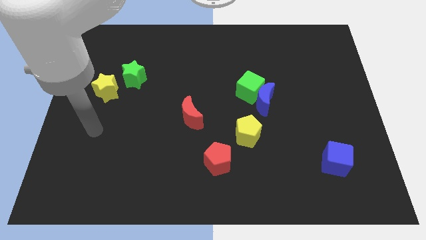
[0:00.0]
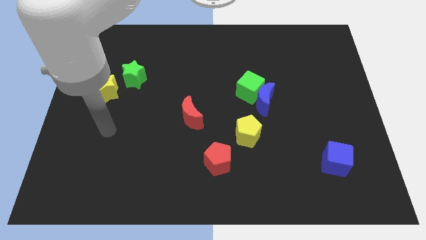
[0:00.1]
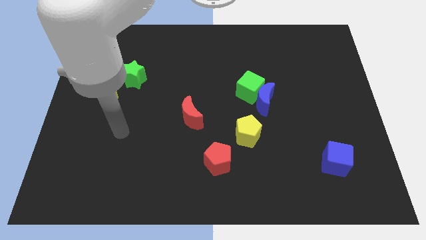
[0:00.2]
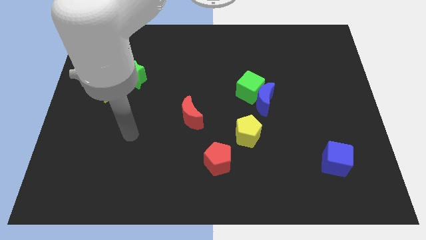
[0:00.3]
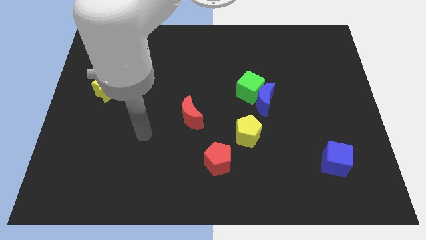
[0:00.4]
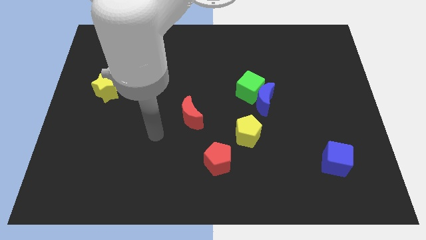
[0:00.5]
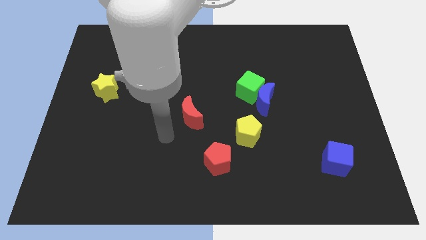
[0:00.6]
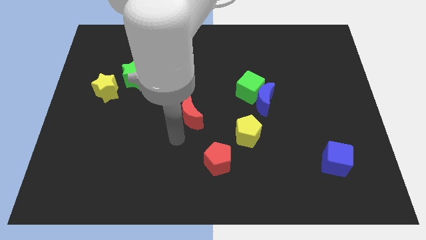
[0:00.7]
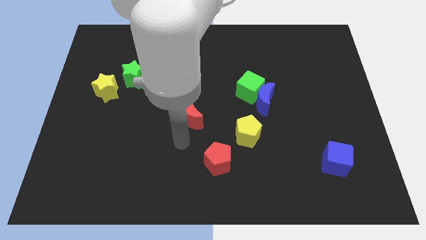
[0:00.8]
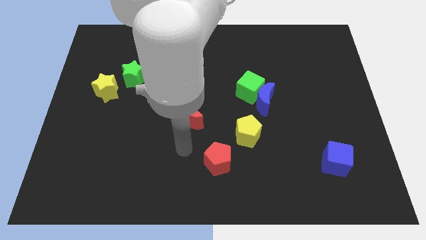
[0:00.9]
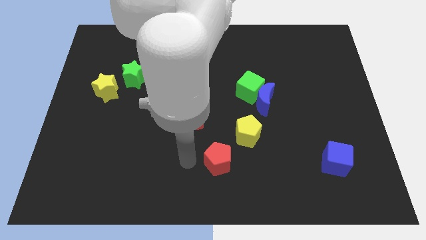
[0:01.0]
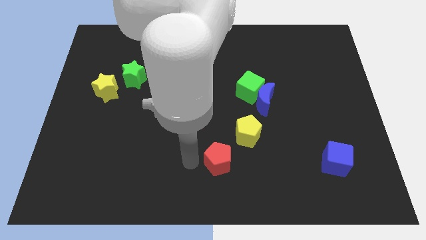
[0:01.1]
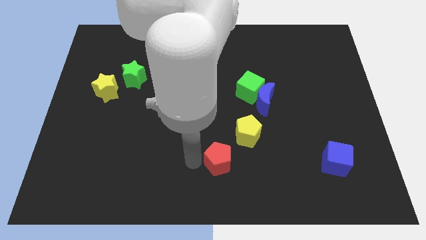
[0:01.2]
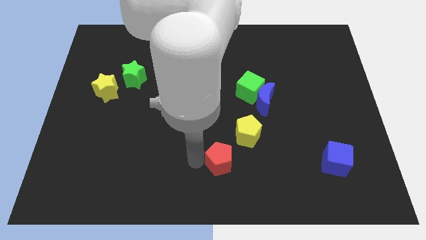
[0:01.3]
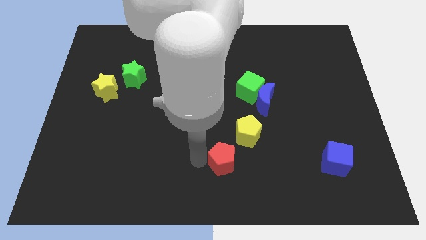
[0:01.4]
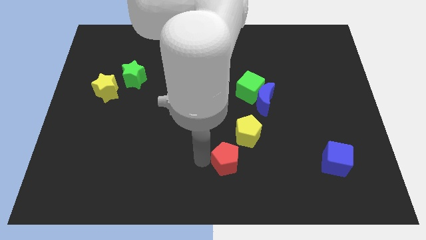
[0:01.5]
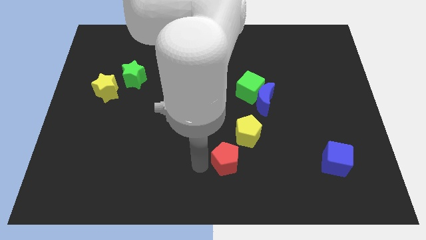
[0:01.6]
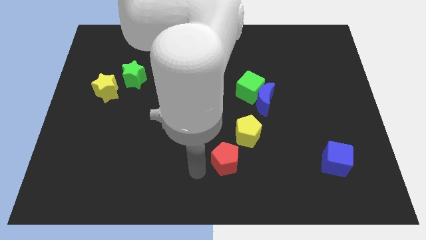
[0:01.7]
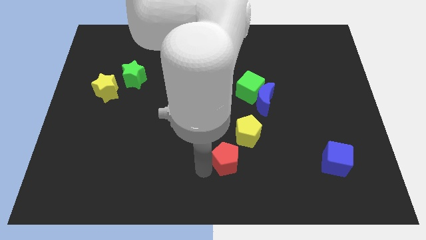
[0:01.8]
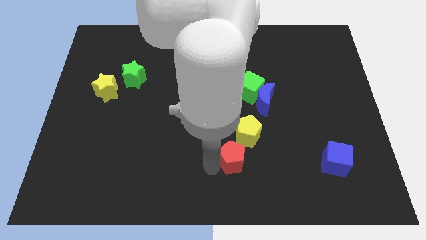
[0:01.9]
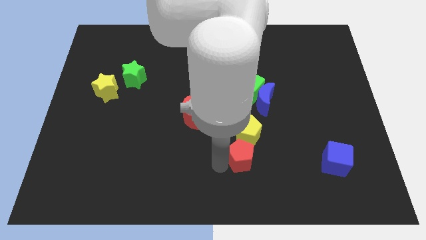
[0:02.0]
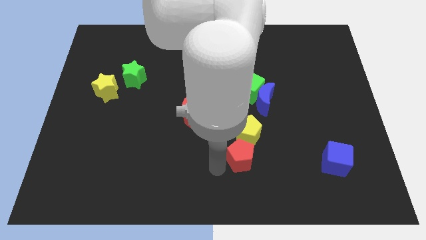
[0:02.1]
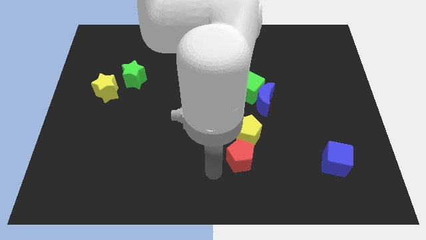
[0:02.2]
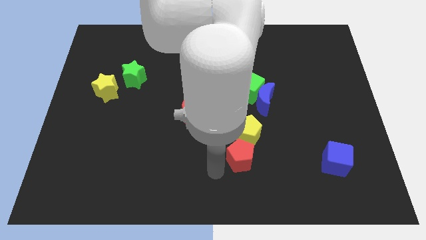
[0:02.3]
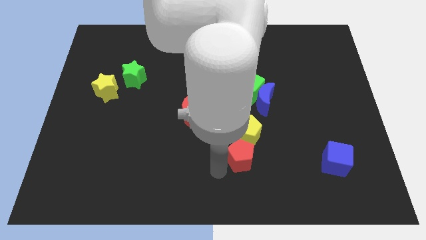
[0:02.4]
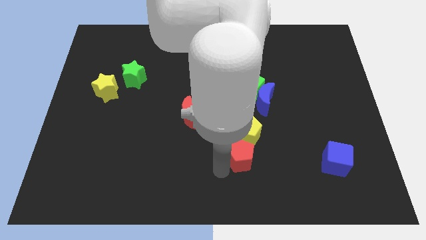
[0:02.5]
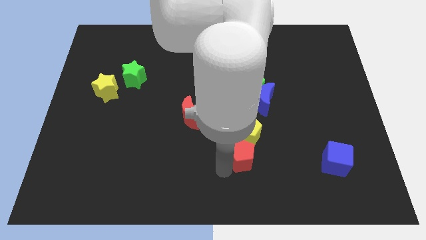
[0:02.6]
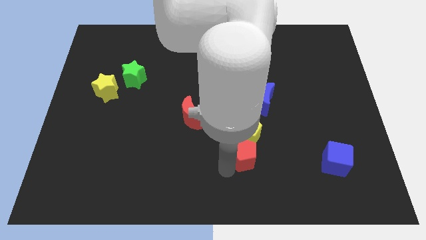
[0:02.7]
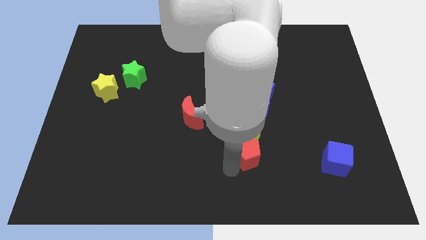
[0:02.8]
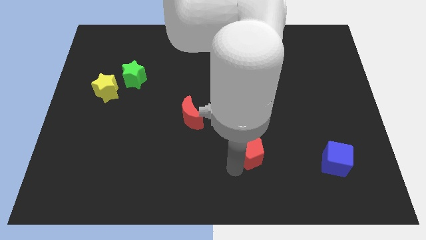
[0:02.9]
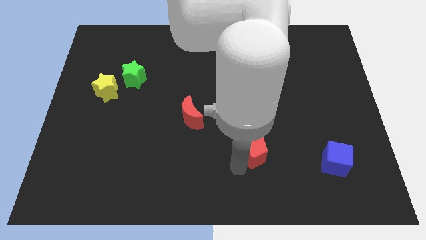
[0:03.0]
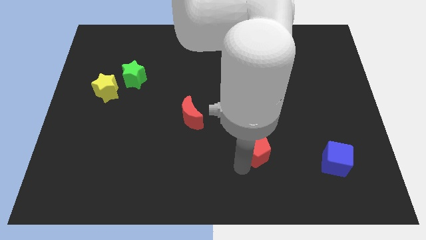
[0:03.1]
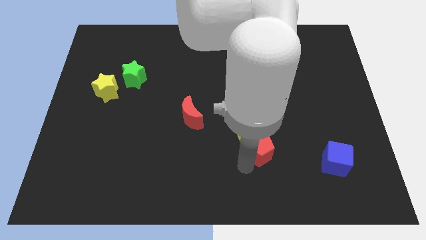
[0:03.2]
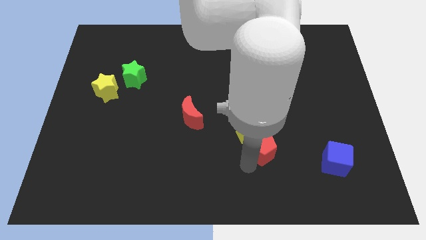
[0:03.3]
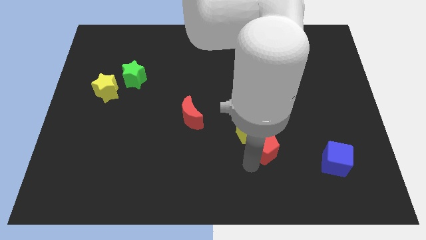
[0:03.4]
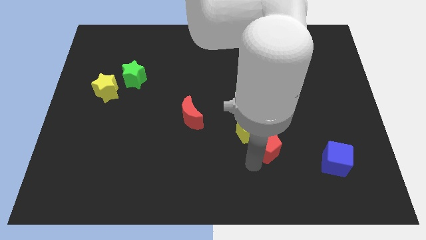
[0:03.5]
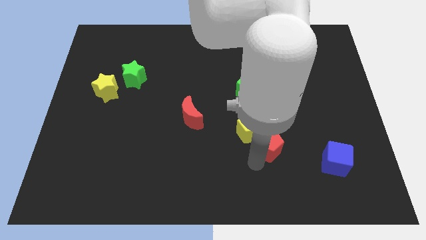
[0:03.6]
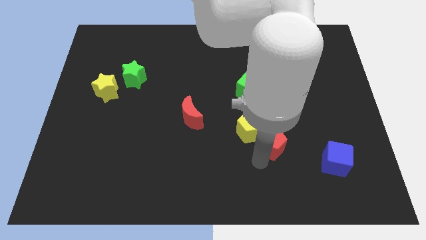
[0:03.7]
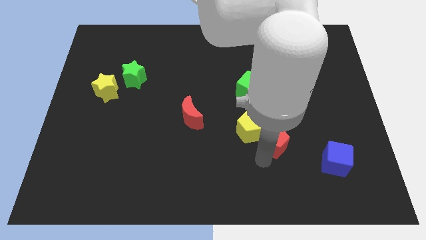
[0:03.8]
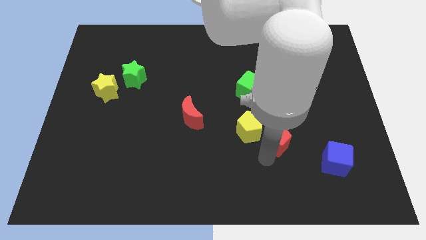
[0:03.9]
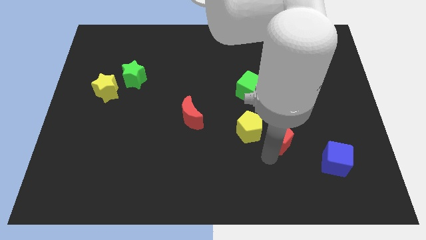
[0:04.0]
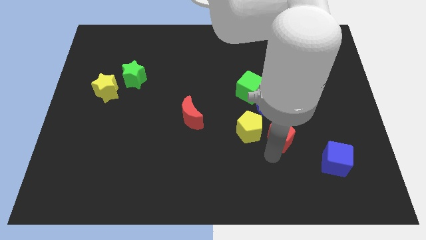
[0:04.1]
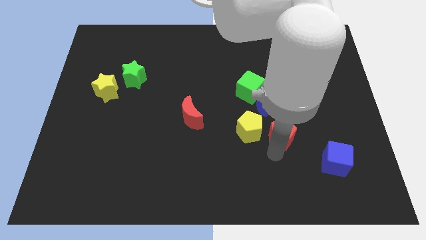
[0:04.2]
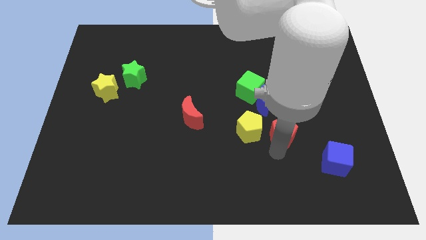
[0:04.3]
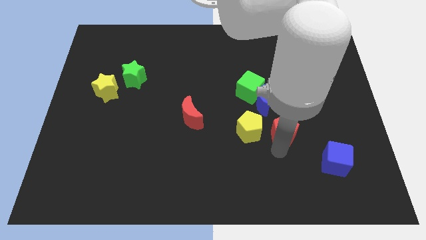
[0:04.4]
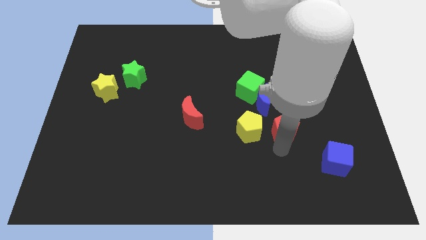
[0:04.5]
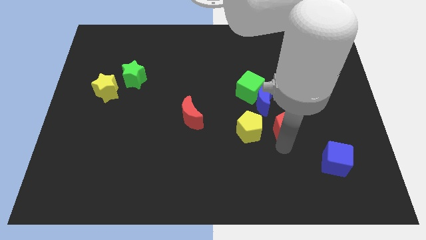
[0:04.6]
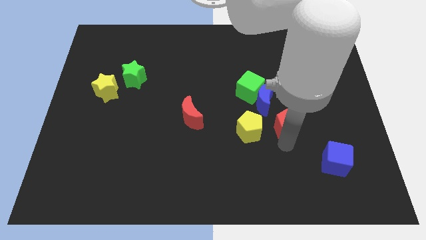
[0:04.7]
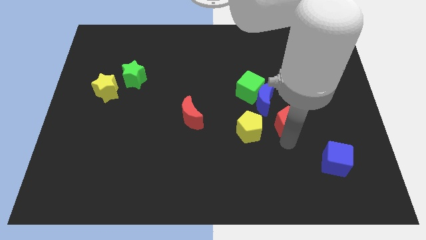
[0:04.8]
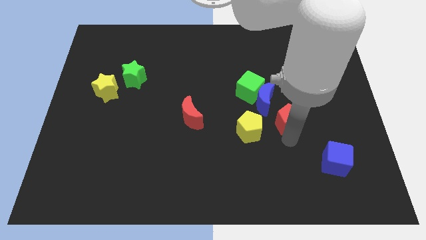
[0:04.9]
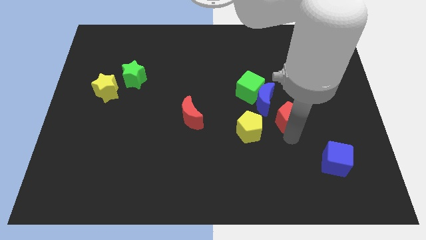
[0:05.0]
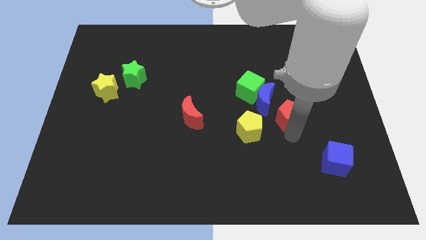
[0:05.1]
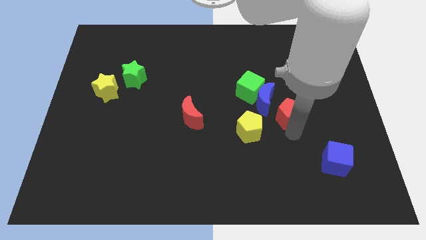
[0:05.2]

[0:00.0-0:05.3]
move the red pentagon diagonally upwards and right

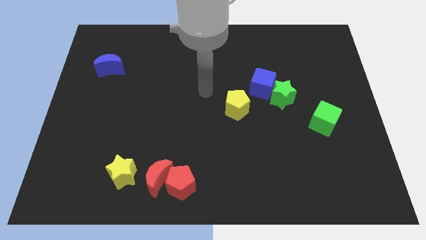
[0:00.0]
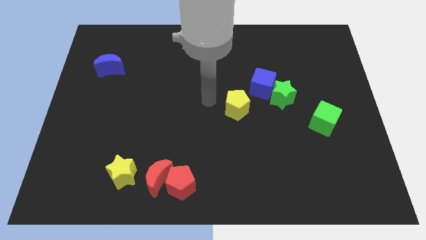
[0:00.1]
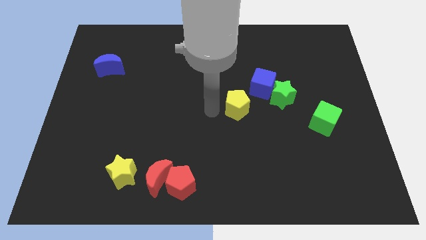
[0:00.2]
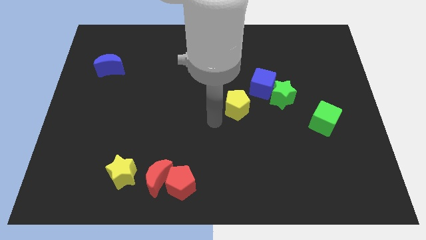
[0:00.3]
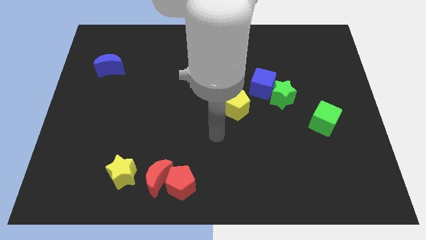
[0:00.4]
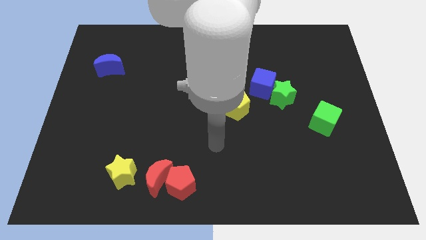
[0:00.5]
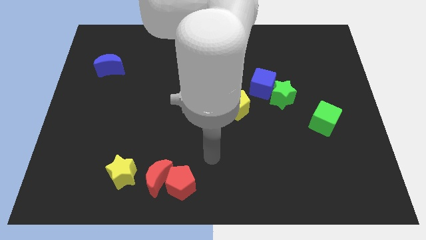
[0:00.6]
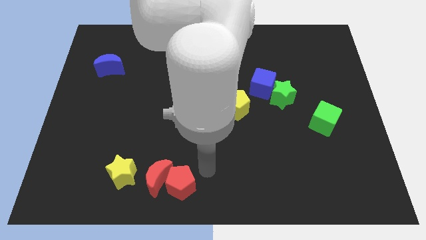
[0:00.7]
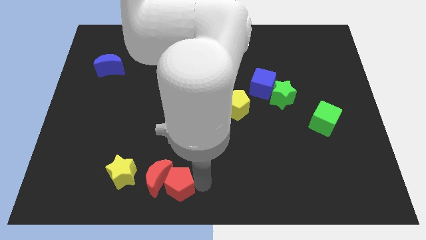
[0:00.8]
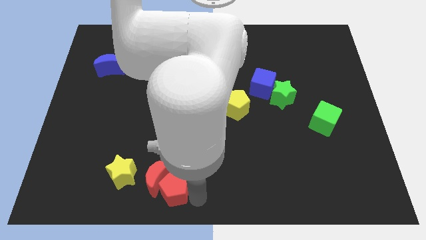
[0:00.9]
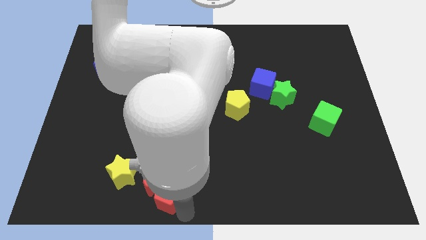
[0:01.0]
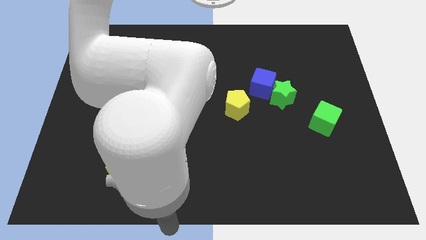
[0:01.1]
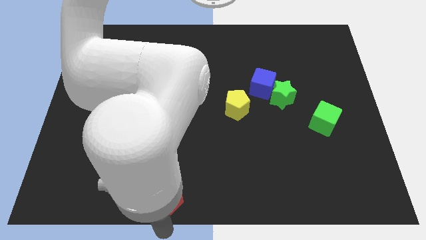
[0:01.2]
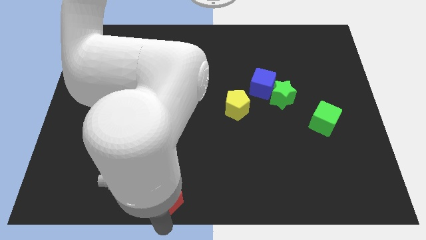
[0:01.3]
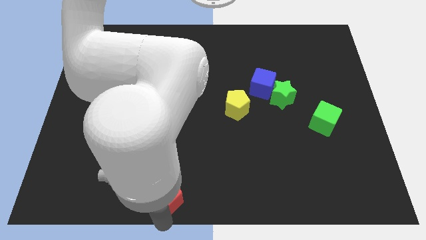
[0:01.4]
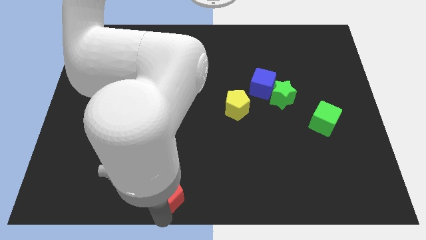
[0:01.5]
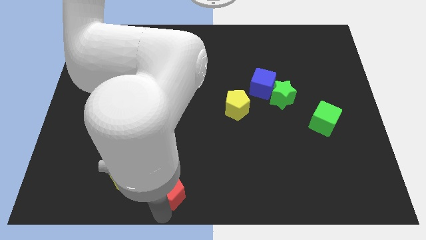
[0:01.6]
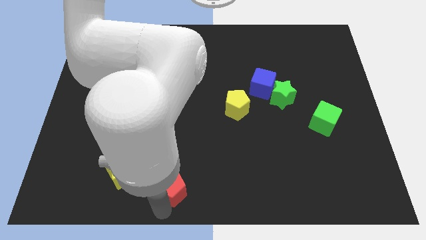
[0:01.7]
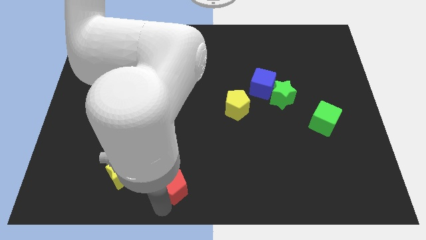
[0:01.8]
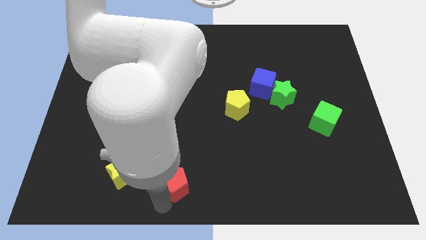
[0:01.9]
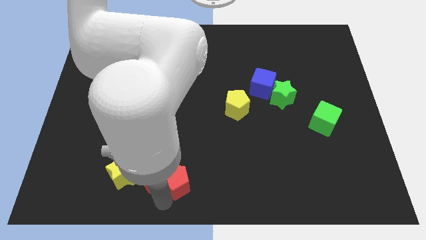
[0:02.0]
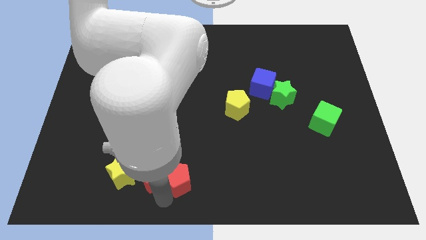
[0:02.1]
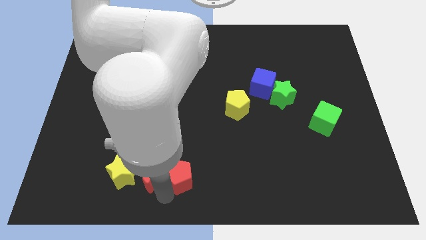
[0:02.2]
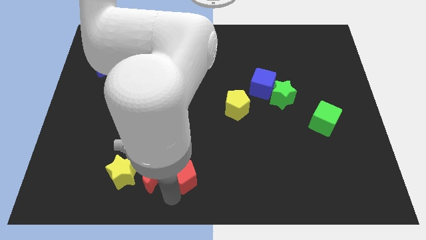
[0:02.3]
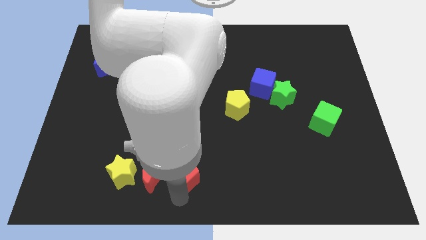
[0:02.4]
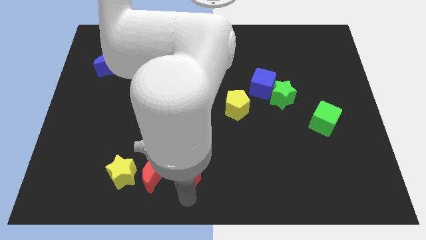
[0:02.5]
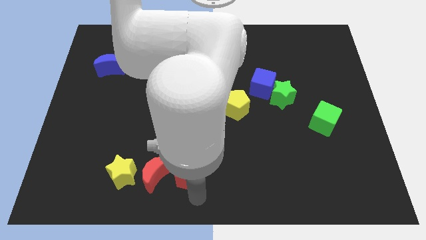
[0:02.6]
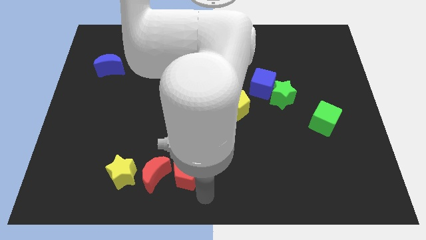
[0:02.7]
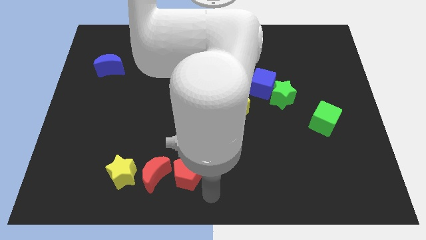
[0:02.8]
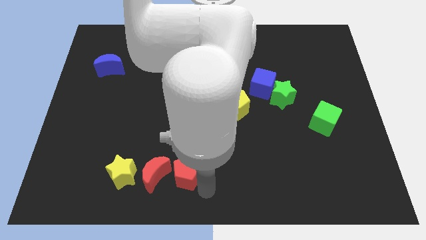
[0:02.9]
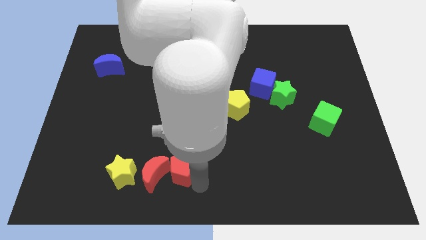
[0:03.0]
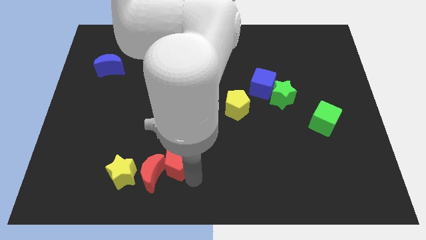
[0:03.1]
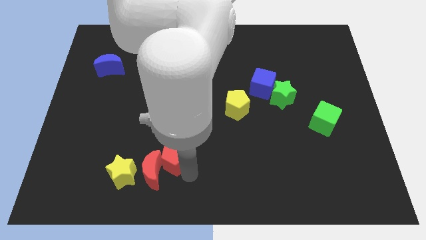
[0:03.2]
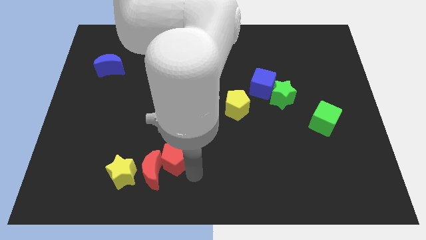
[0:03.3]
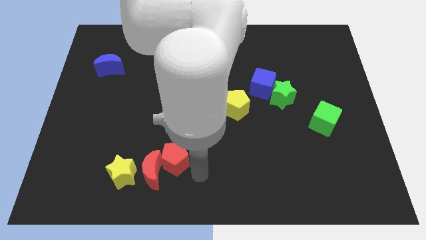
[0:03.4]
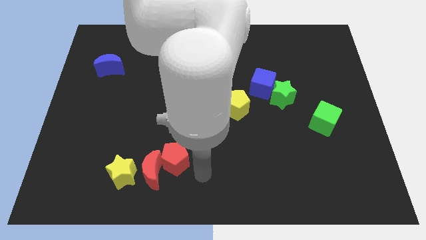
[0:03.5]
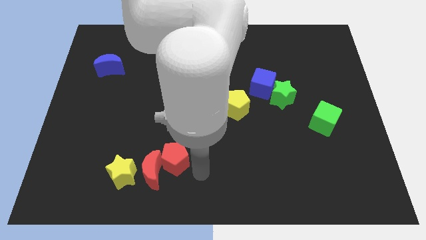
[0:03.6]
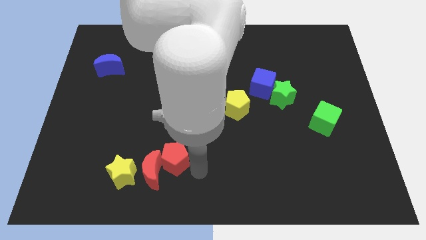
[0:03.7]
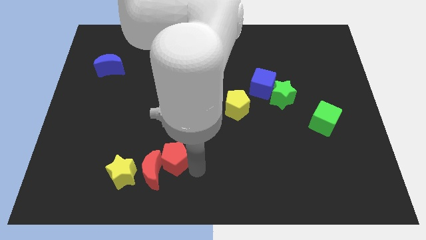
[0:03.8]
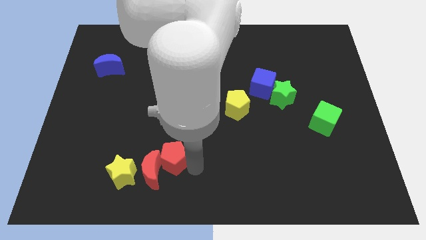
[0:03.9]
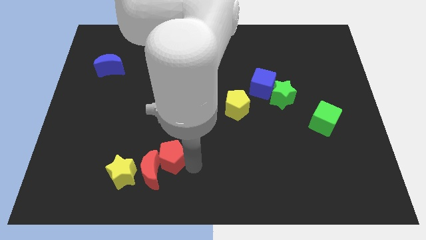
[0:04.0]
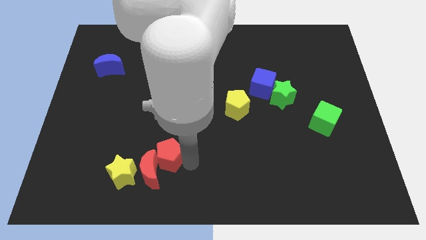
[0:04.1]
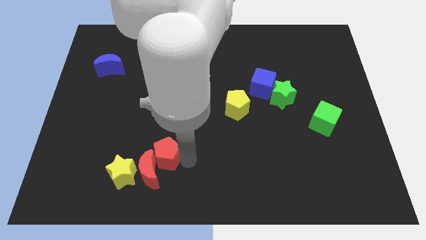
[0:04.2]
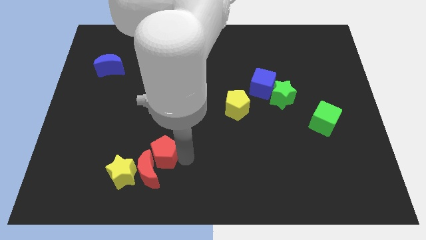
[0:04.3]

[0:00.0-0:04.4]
slide the red pentagon diagonally up and left slightly
